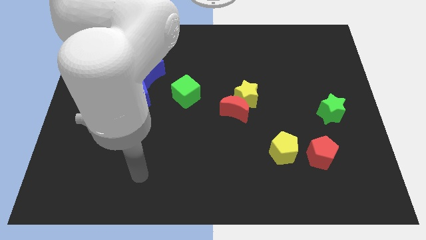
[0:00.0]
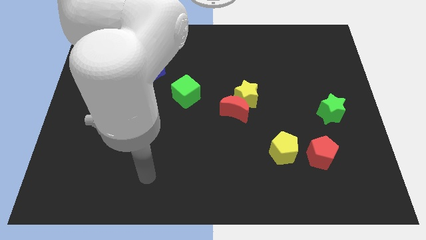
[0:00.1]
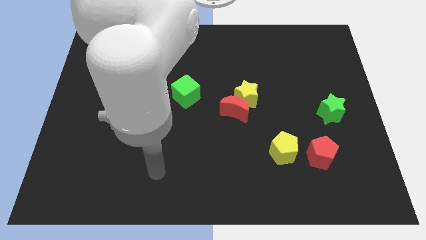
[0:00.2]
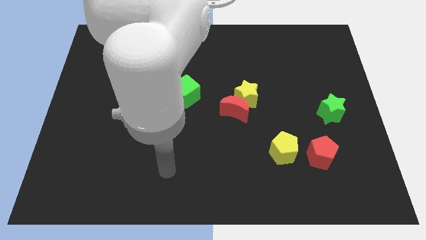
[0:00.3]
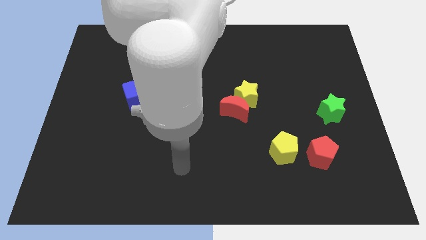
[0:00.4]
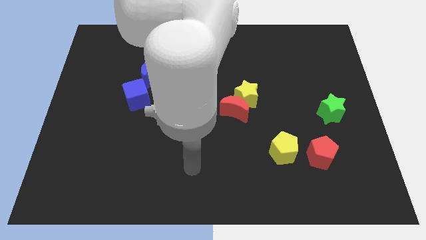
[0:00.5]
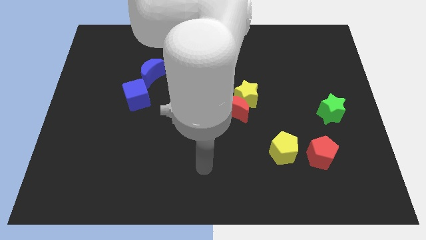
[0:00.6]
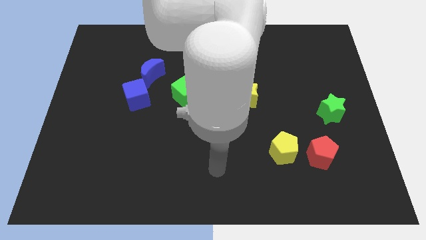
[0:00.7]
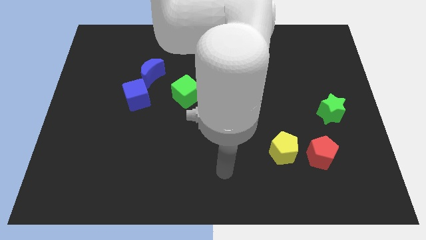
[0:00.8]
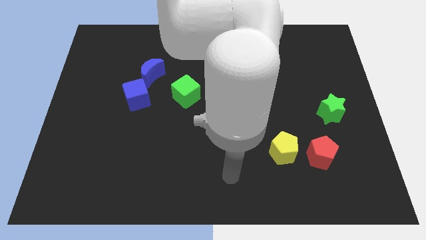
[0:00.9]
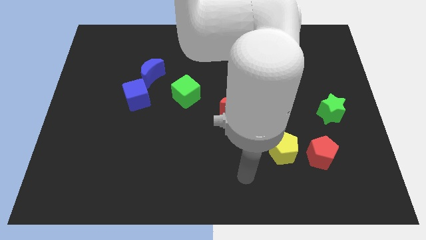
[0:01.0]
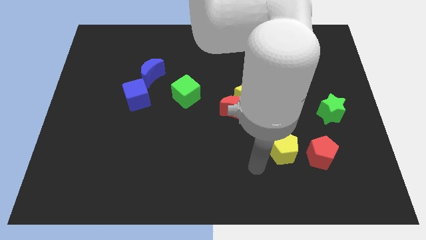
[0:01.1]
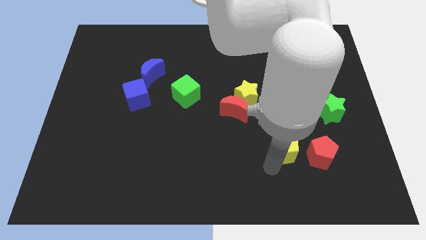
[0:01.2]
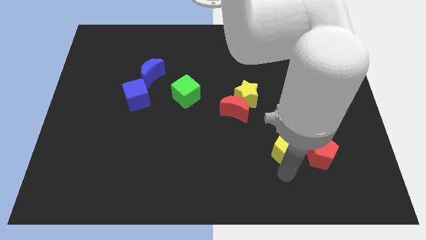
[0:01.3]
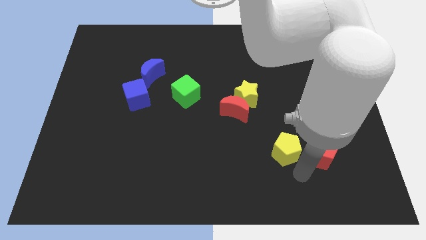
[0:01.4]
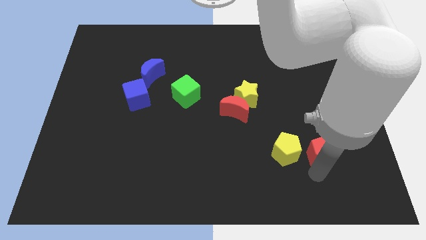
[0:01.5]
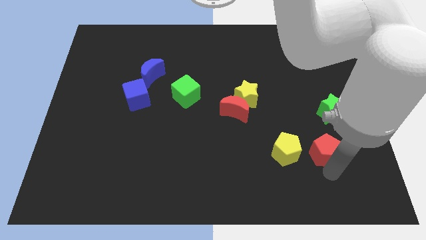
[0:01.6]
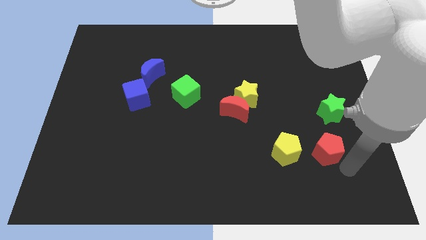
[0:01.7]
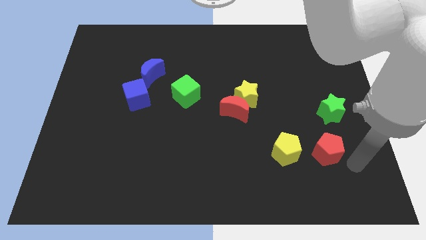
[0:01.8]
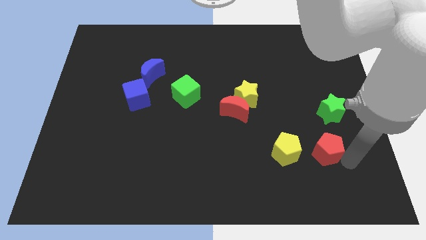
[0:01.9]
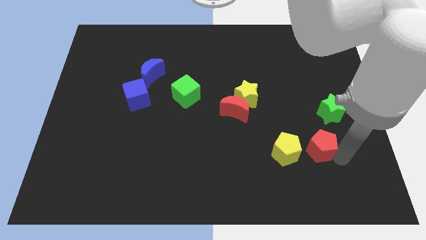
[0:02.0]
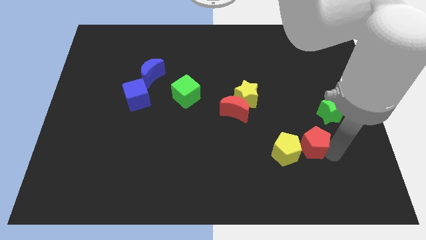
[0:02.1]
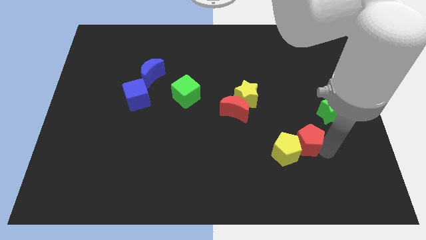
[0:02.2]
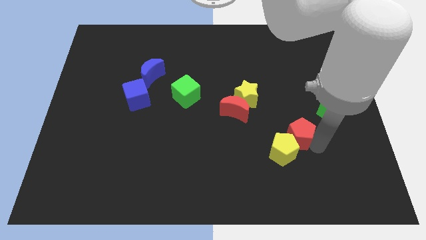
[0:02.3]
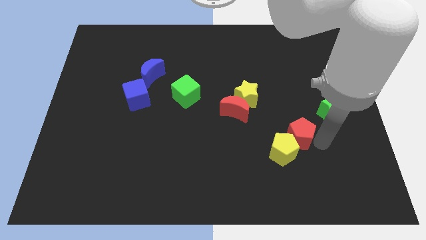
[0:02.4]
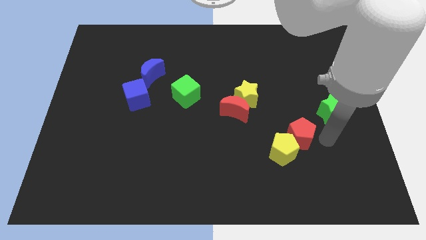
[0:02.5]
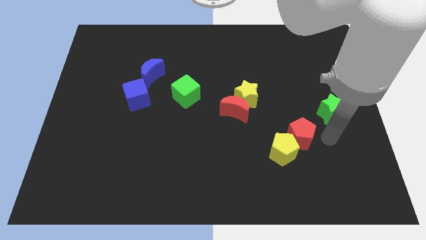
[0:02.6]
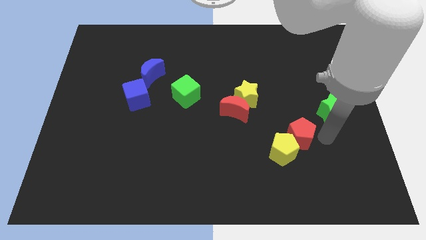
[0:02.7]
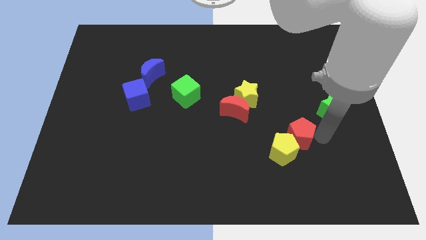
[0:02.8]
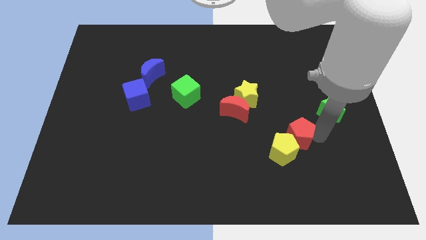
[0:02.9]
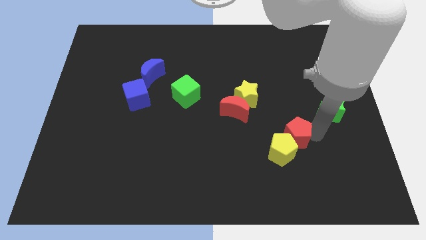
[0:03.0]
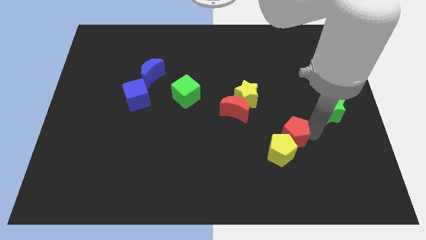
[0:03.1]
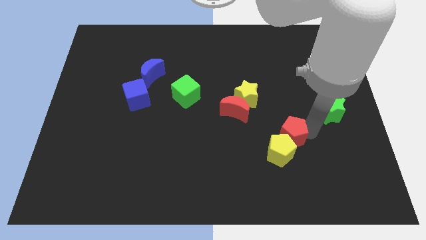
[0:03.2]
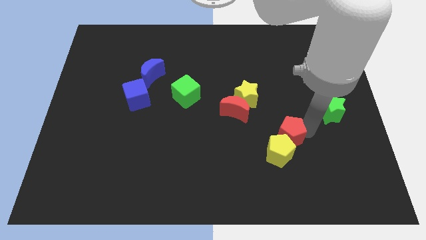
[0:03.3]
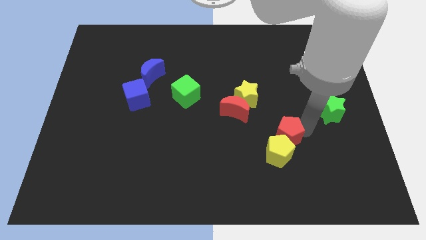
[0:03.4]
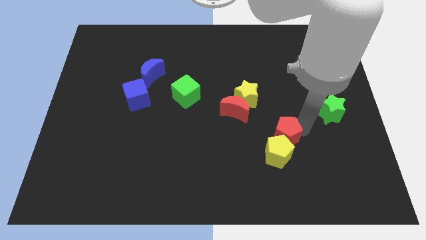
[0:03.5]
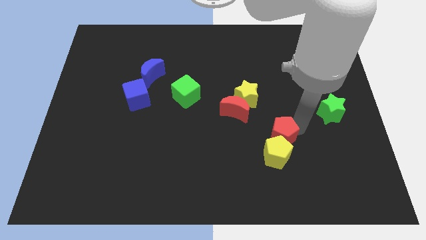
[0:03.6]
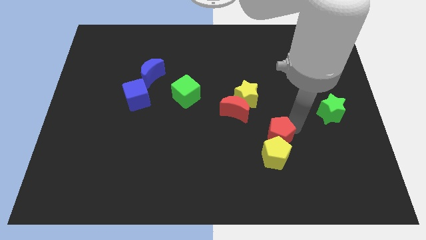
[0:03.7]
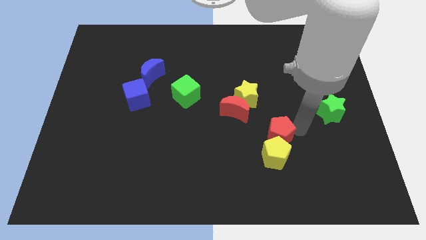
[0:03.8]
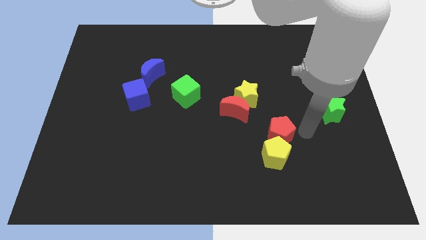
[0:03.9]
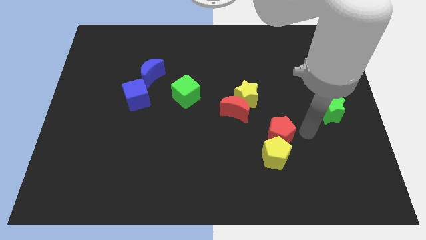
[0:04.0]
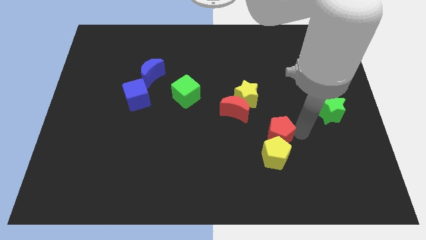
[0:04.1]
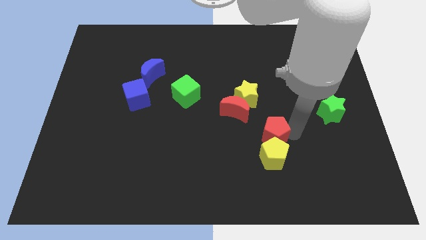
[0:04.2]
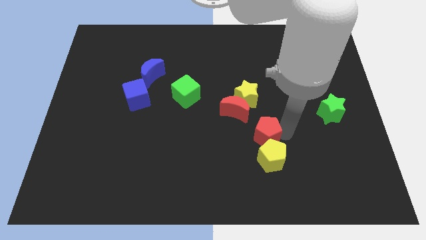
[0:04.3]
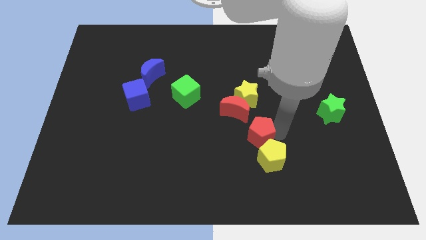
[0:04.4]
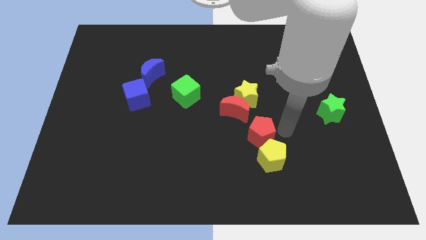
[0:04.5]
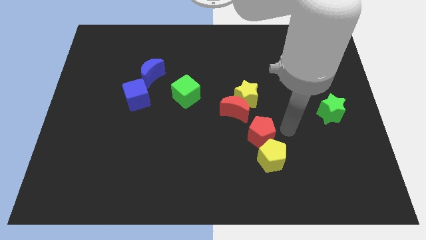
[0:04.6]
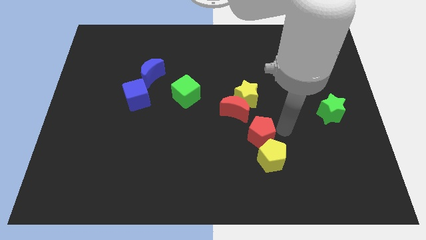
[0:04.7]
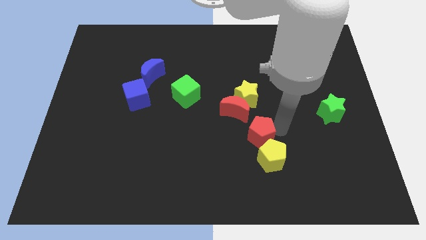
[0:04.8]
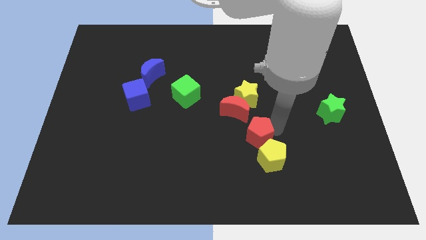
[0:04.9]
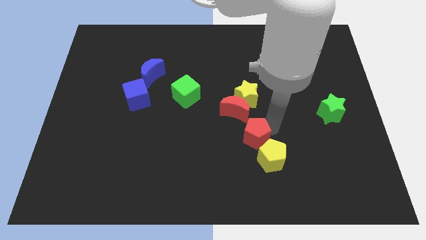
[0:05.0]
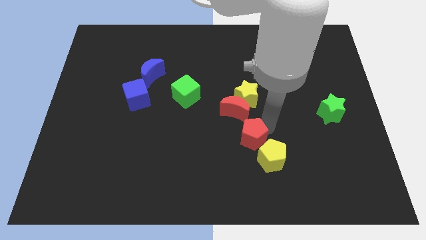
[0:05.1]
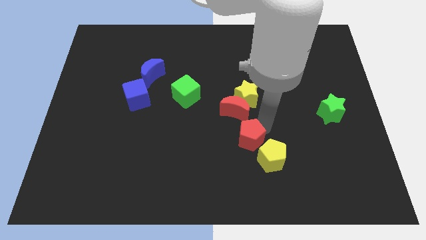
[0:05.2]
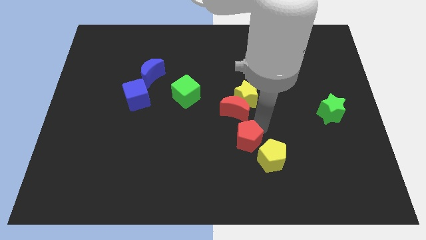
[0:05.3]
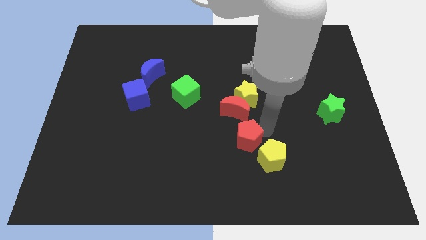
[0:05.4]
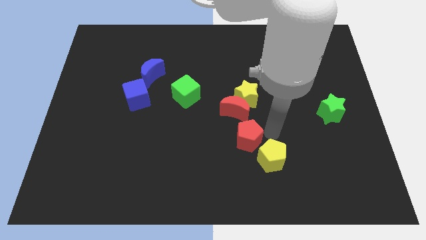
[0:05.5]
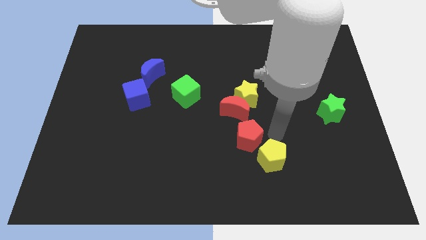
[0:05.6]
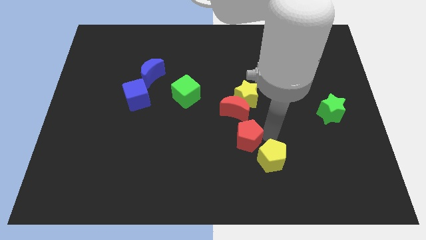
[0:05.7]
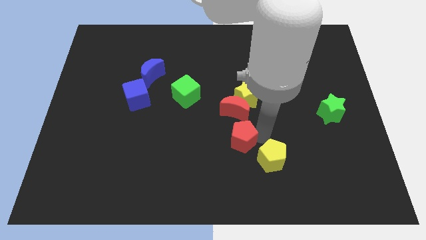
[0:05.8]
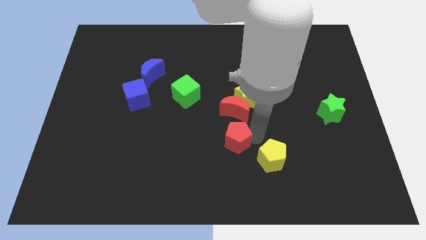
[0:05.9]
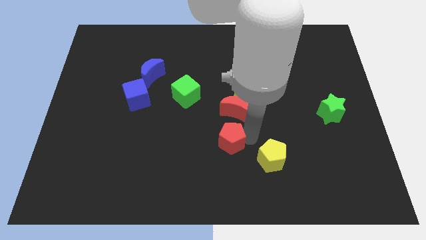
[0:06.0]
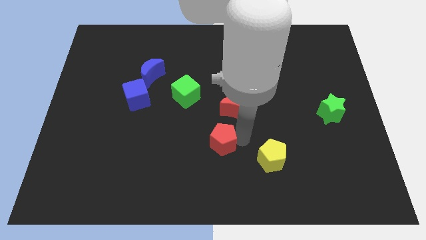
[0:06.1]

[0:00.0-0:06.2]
move the red pentagon to the left

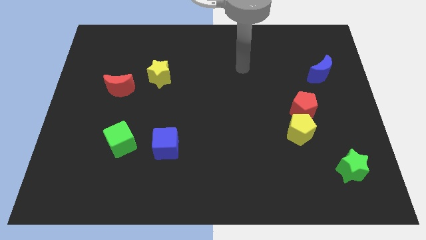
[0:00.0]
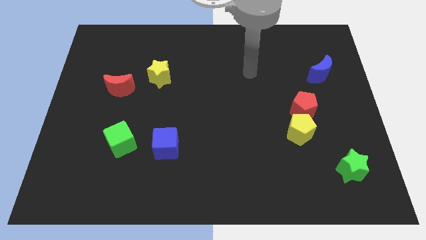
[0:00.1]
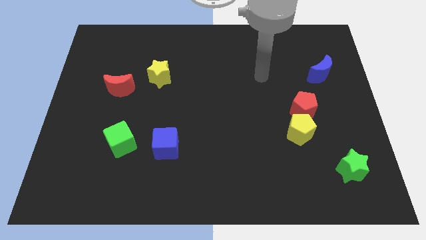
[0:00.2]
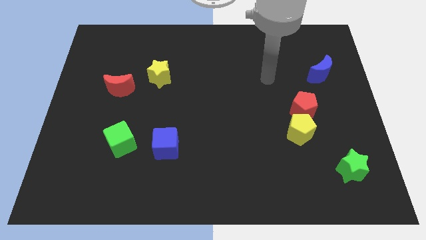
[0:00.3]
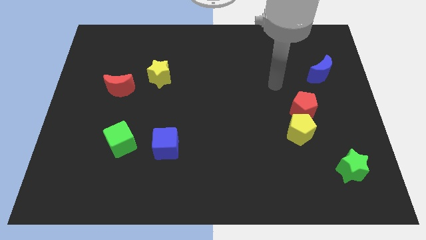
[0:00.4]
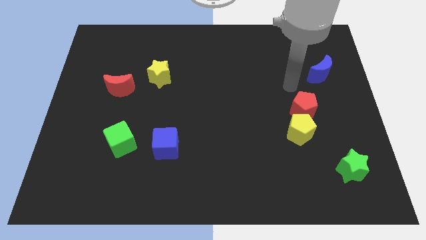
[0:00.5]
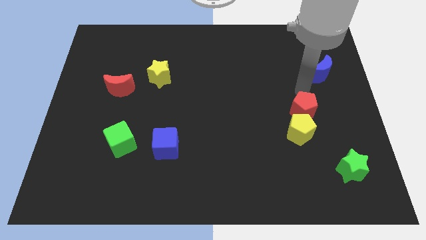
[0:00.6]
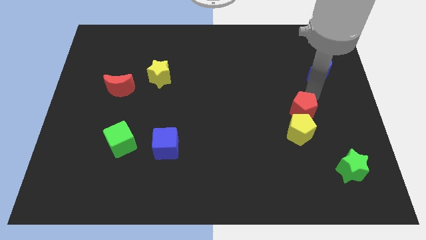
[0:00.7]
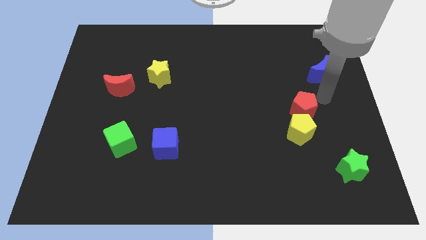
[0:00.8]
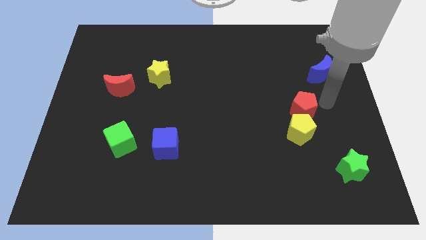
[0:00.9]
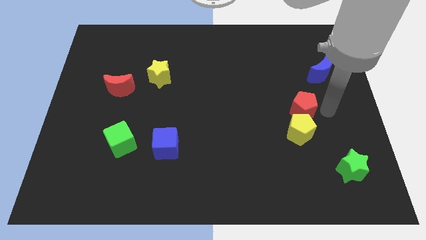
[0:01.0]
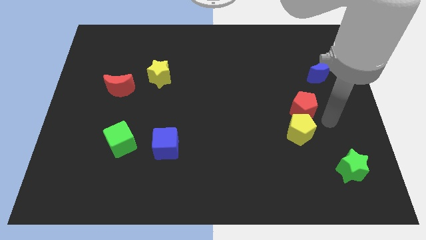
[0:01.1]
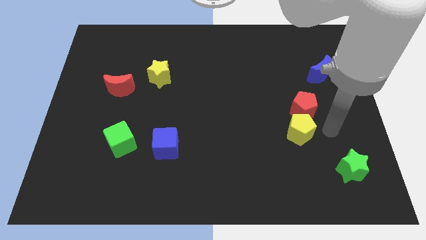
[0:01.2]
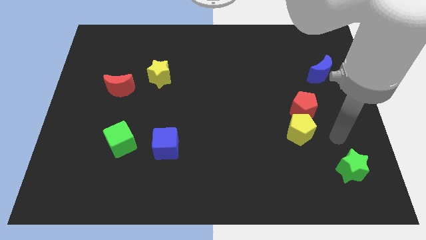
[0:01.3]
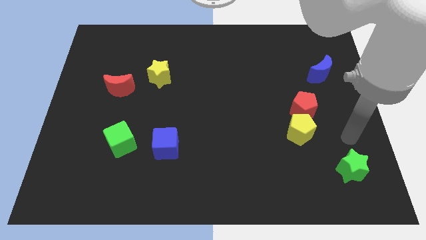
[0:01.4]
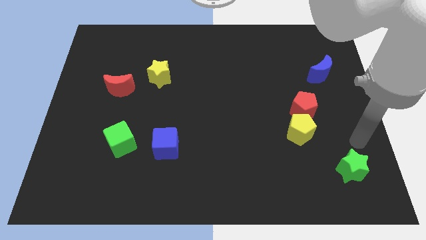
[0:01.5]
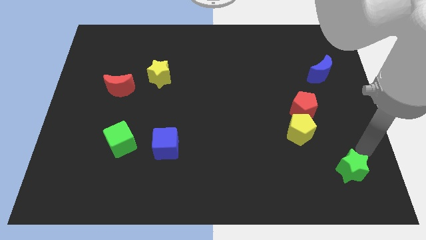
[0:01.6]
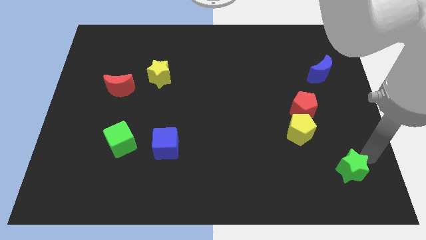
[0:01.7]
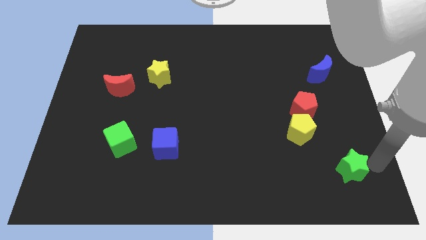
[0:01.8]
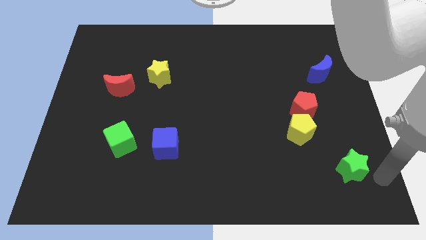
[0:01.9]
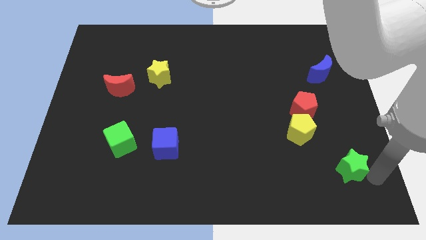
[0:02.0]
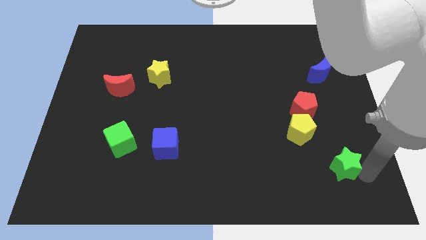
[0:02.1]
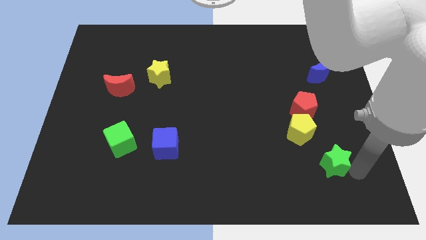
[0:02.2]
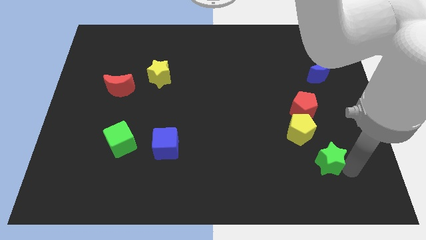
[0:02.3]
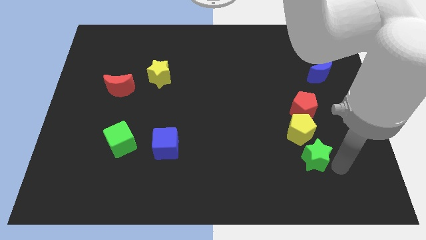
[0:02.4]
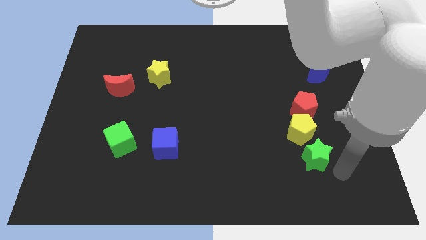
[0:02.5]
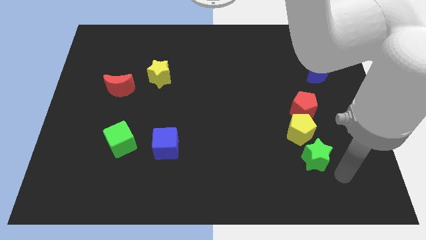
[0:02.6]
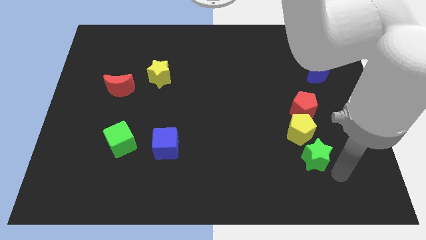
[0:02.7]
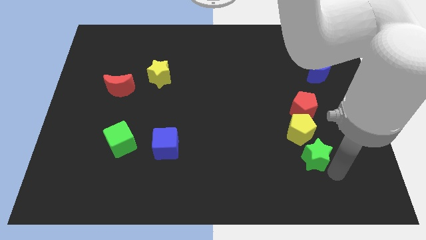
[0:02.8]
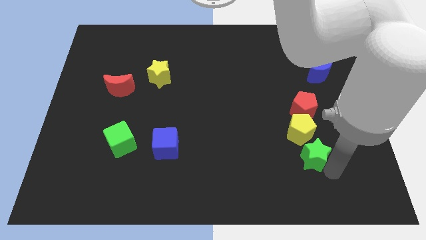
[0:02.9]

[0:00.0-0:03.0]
slightly slide the green star diagonally upwards and left
